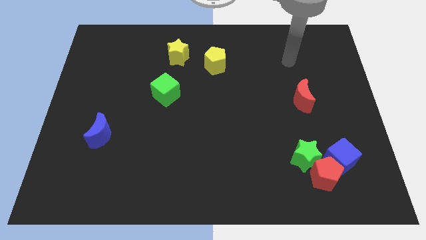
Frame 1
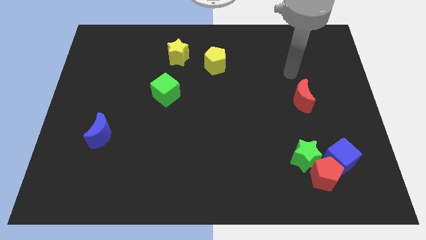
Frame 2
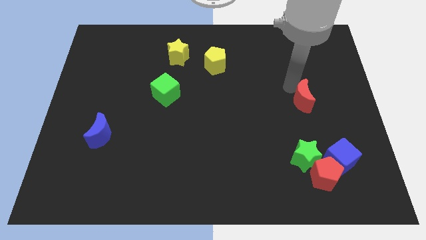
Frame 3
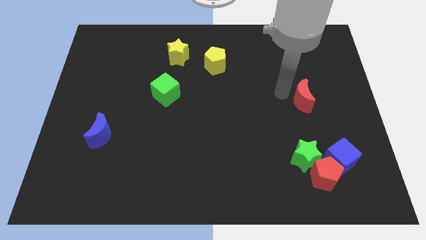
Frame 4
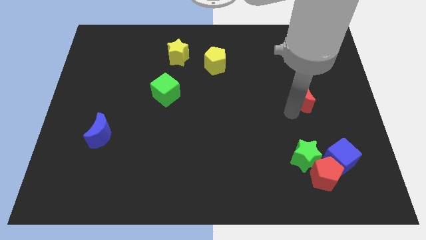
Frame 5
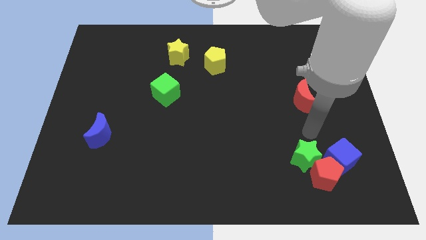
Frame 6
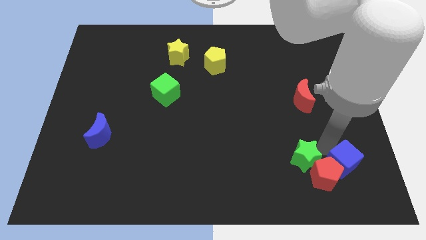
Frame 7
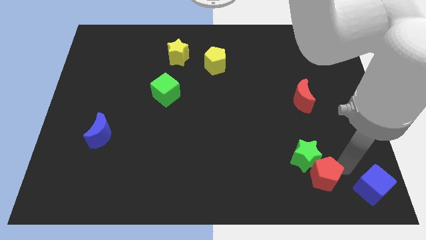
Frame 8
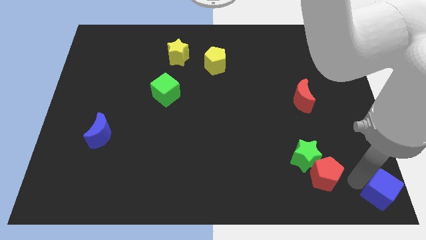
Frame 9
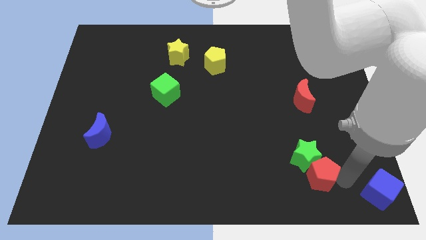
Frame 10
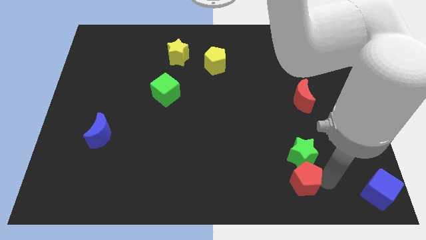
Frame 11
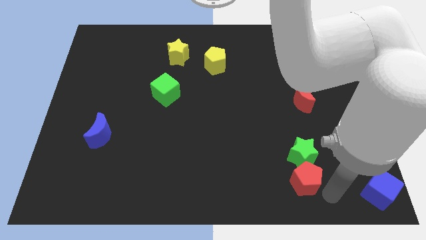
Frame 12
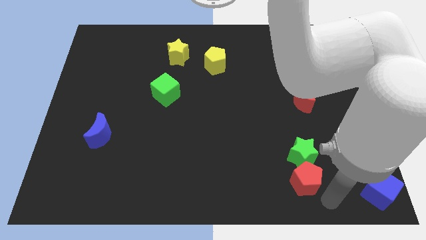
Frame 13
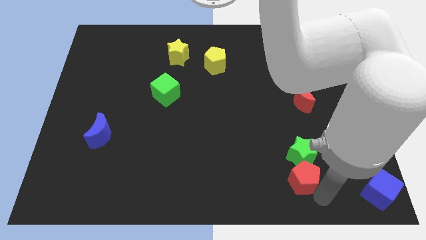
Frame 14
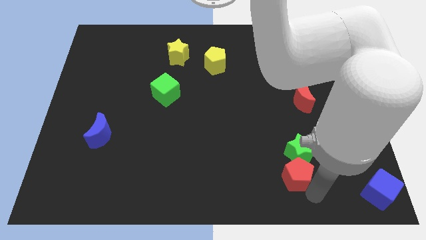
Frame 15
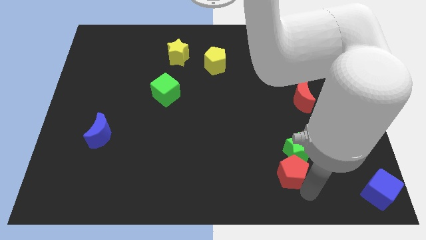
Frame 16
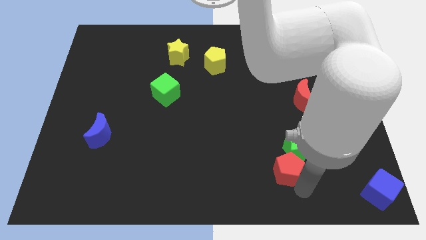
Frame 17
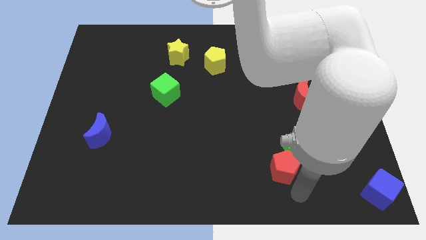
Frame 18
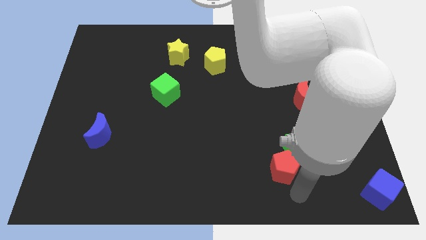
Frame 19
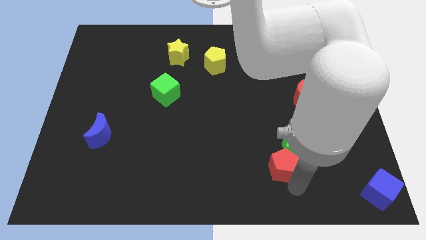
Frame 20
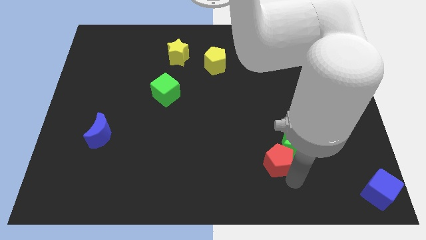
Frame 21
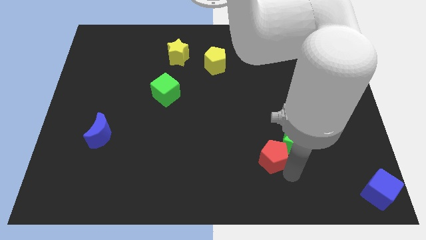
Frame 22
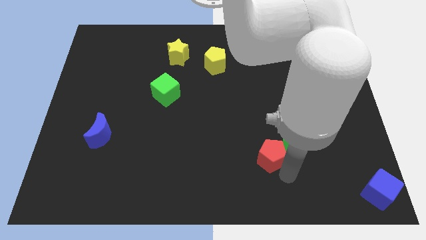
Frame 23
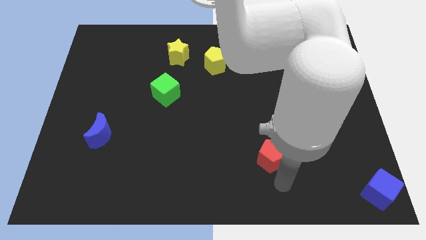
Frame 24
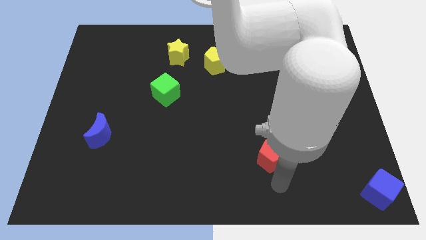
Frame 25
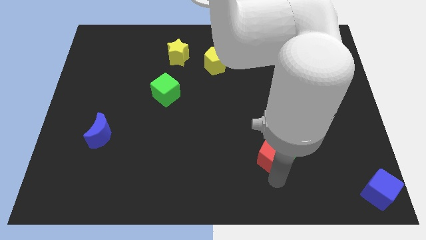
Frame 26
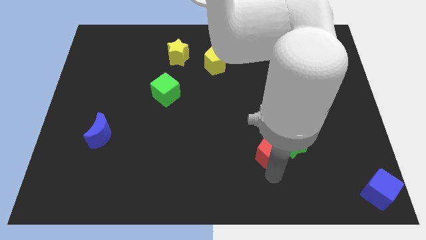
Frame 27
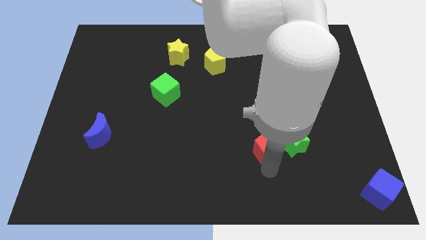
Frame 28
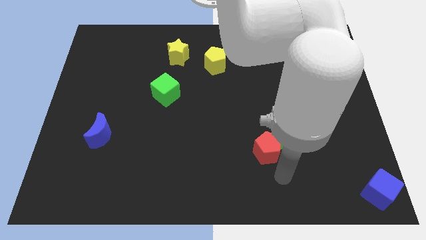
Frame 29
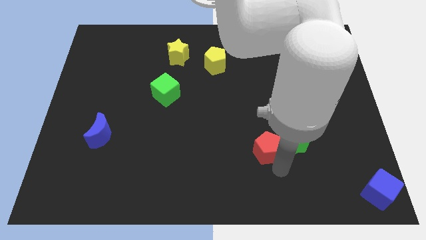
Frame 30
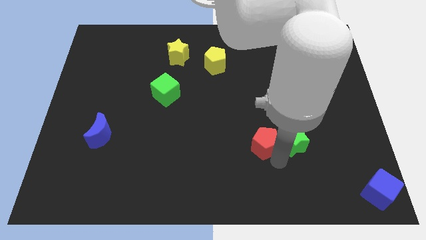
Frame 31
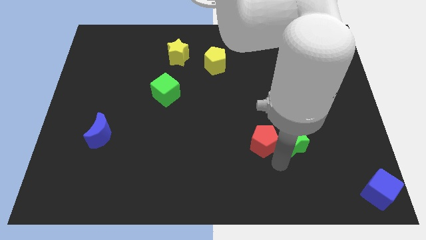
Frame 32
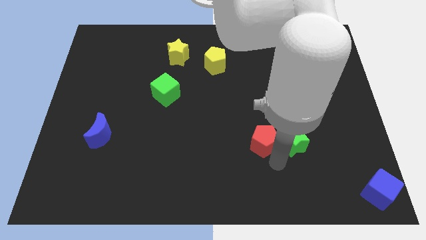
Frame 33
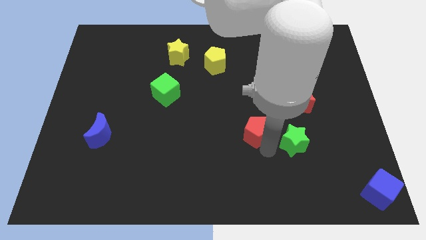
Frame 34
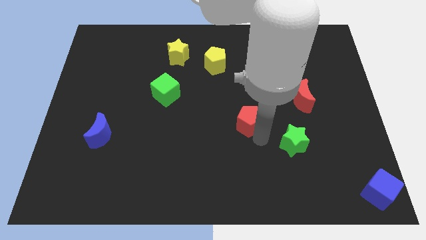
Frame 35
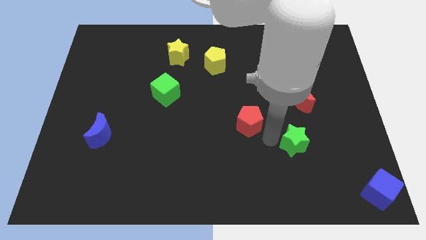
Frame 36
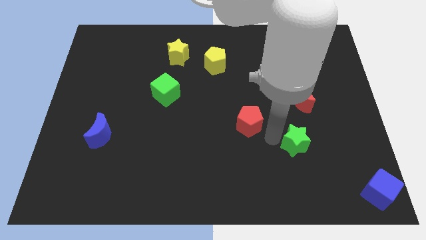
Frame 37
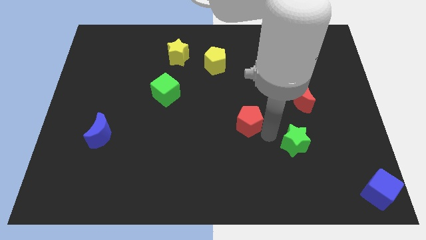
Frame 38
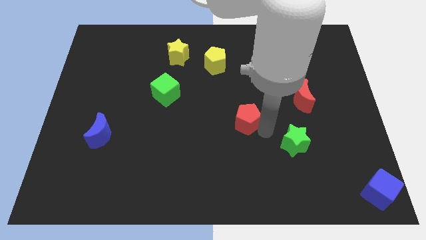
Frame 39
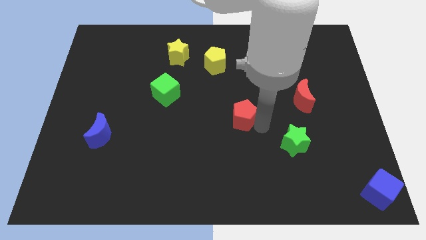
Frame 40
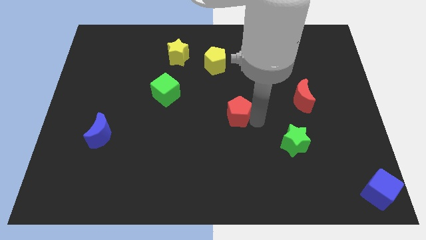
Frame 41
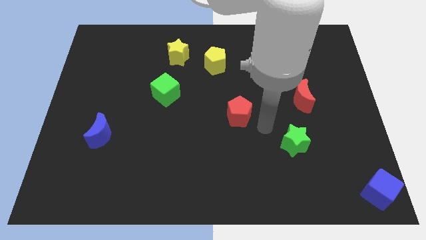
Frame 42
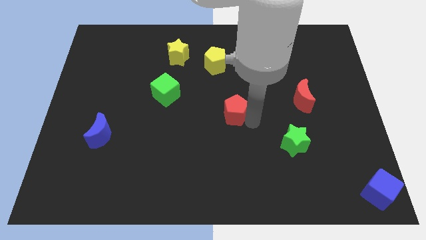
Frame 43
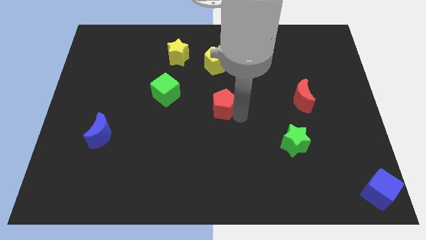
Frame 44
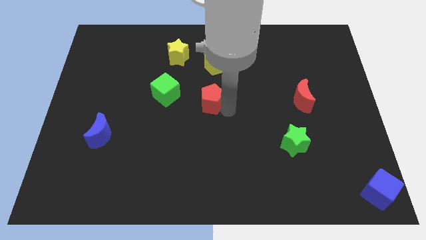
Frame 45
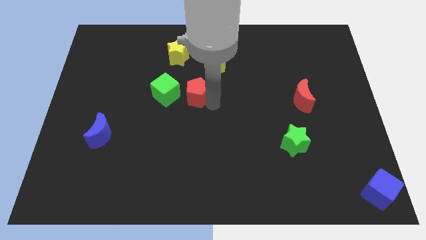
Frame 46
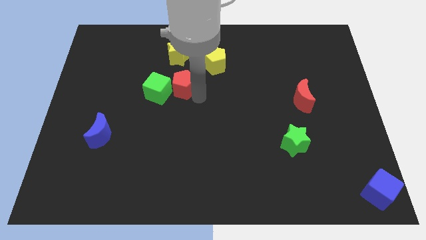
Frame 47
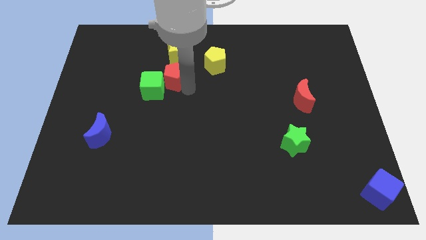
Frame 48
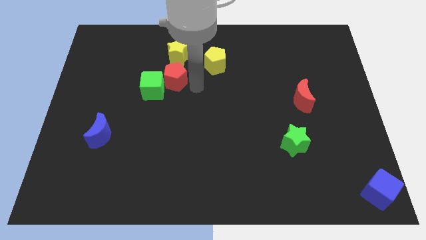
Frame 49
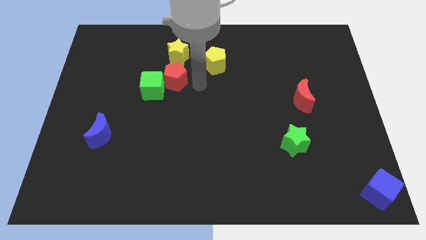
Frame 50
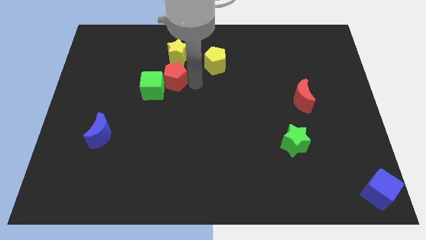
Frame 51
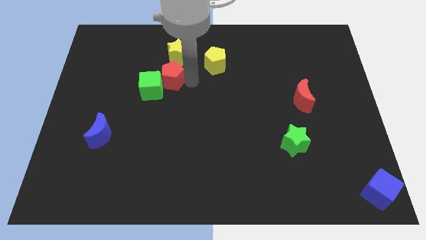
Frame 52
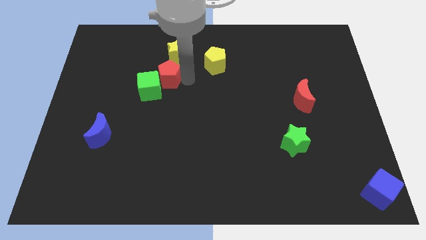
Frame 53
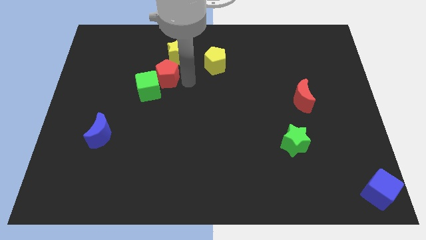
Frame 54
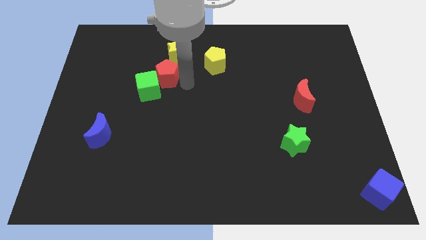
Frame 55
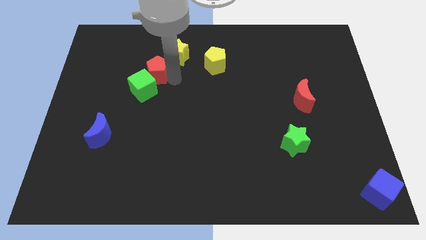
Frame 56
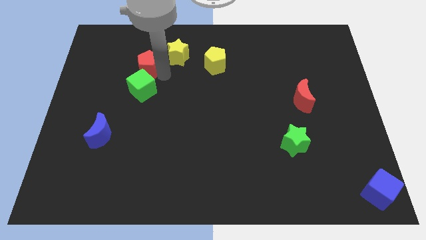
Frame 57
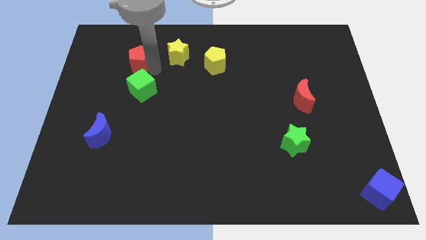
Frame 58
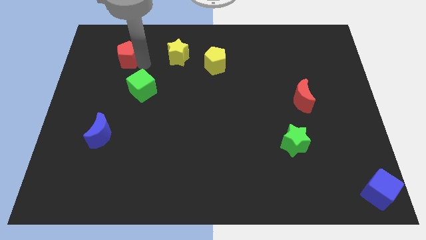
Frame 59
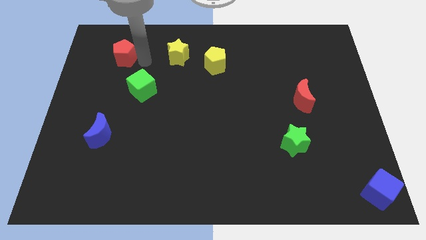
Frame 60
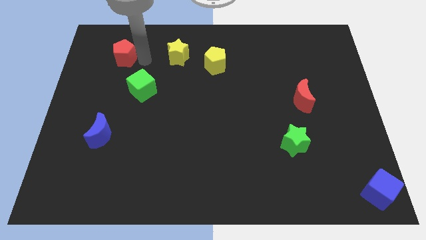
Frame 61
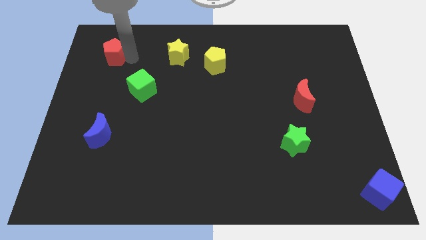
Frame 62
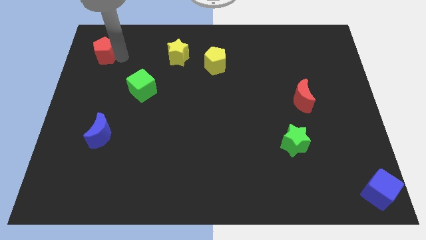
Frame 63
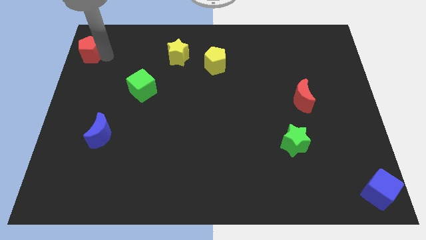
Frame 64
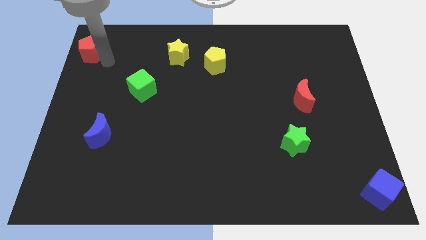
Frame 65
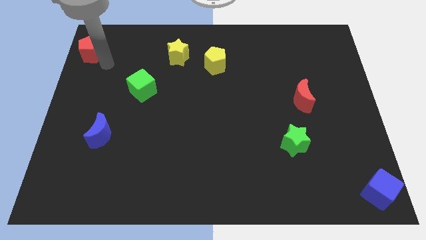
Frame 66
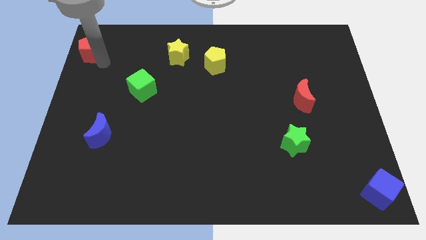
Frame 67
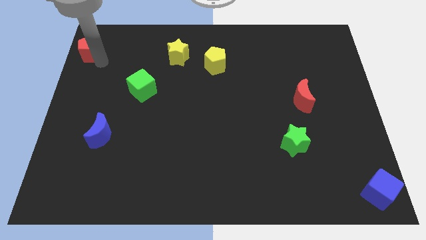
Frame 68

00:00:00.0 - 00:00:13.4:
move the red pentagon to the upper left corner

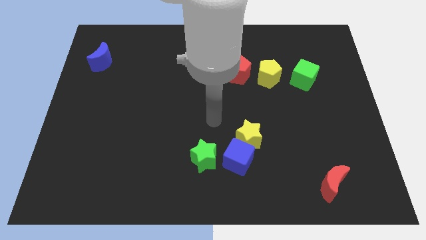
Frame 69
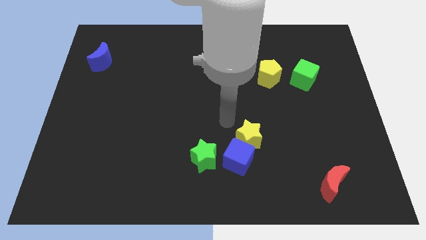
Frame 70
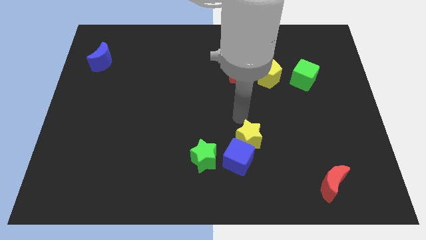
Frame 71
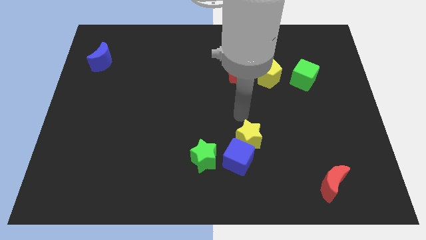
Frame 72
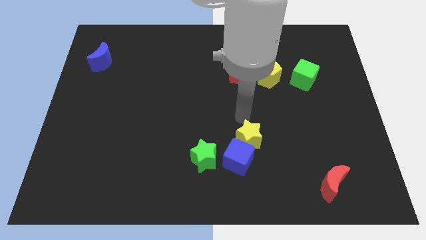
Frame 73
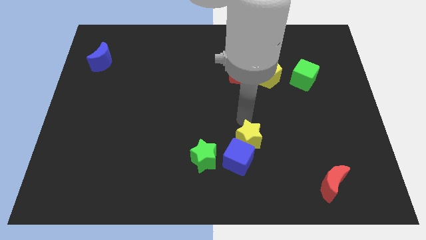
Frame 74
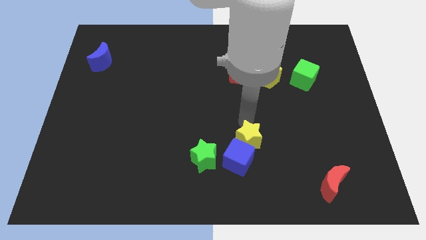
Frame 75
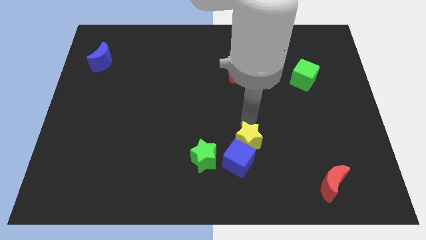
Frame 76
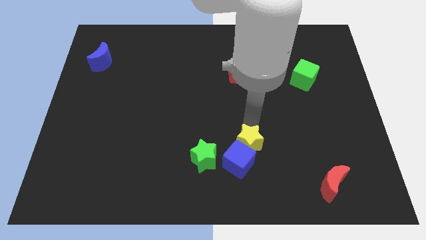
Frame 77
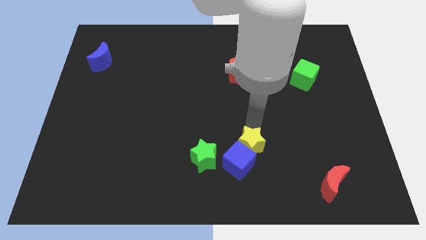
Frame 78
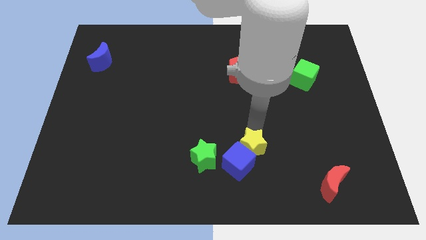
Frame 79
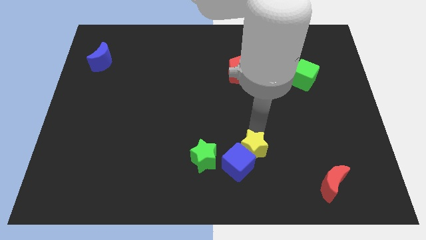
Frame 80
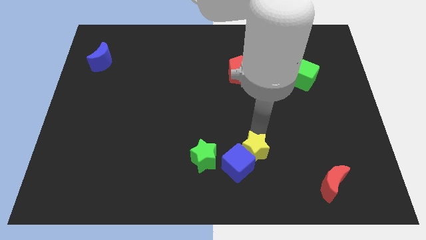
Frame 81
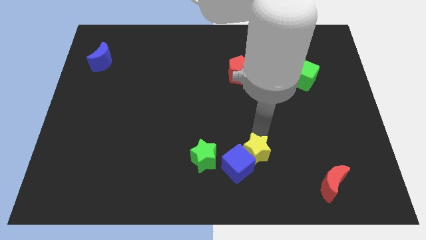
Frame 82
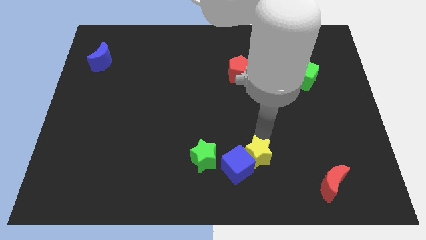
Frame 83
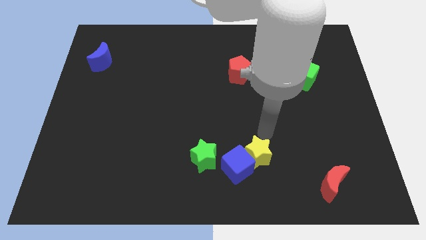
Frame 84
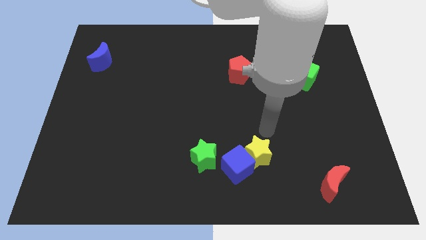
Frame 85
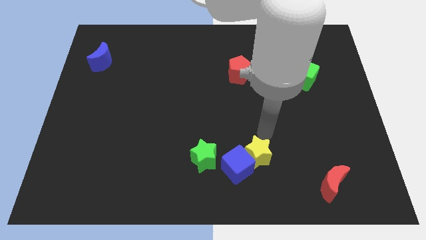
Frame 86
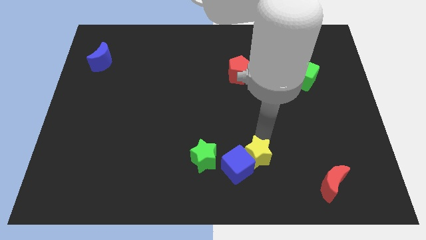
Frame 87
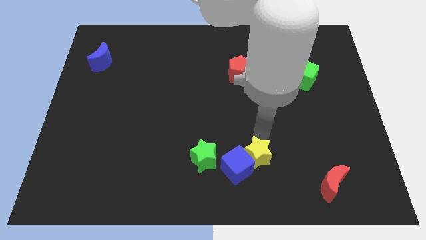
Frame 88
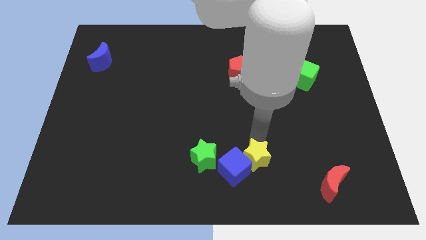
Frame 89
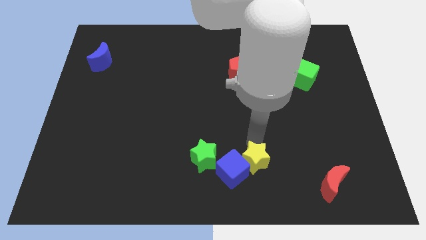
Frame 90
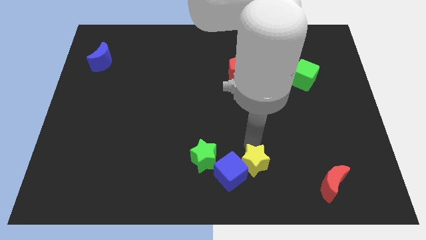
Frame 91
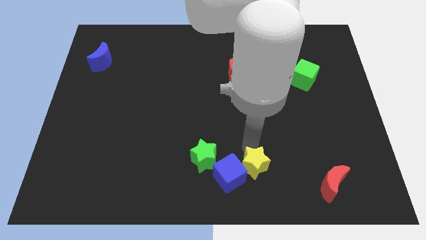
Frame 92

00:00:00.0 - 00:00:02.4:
push the yellow star to the bottom side
